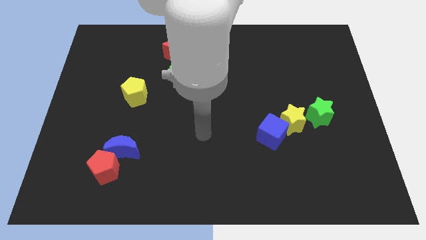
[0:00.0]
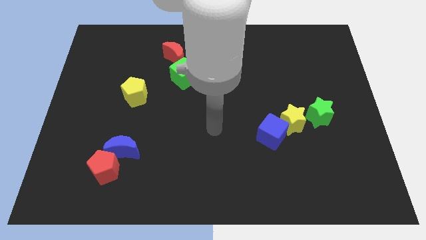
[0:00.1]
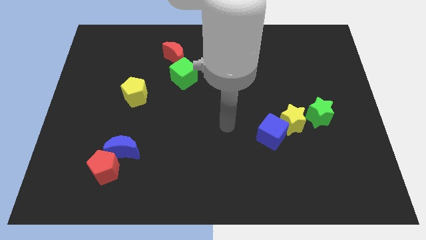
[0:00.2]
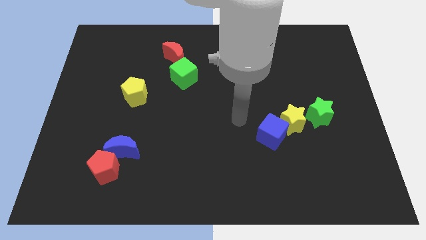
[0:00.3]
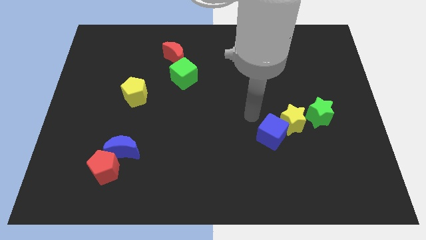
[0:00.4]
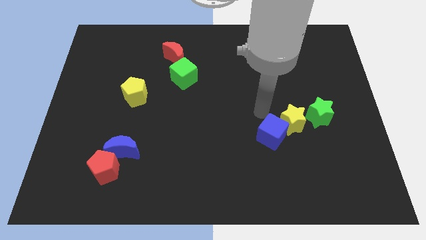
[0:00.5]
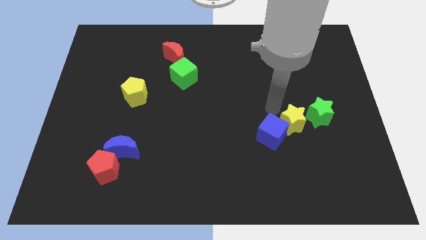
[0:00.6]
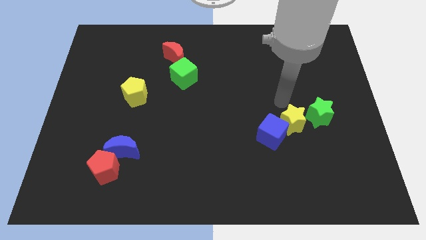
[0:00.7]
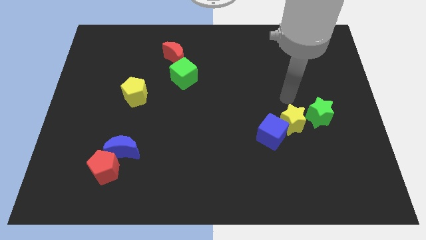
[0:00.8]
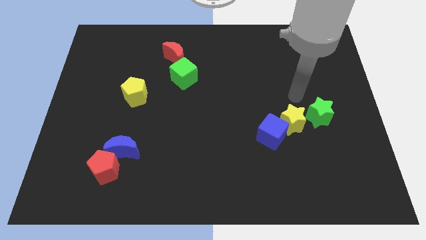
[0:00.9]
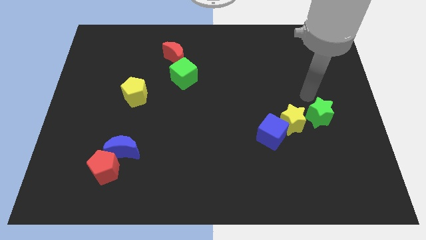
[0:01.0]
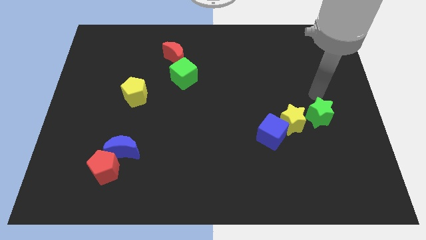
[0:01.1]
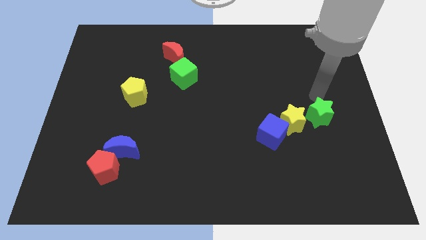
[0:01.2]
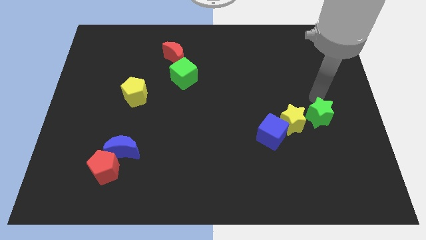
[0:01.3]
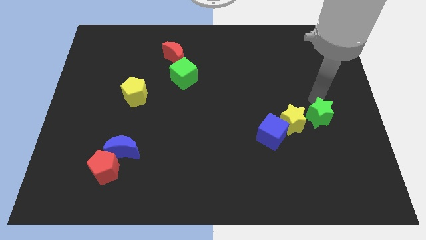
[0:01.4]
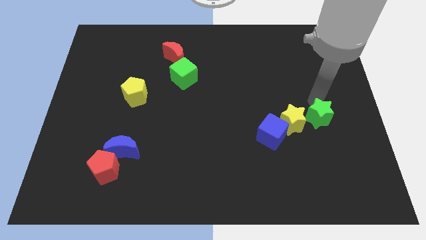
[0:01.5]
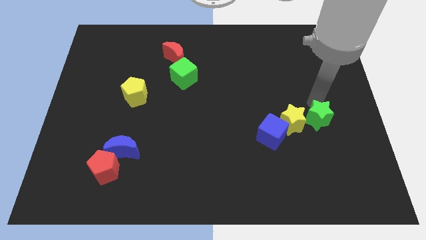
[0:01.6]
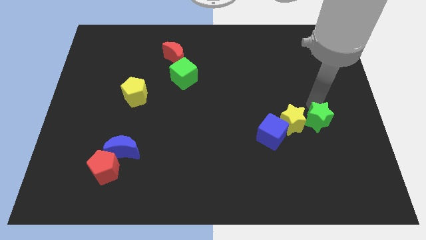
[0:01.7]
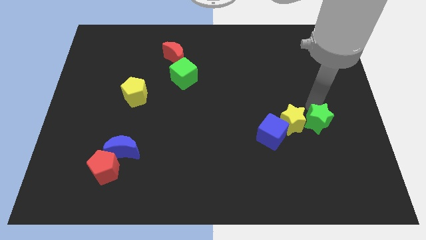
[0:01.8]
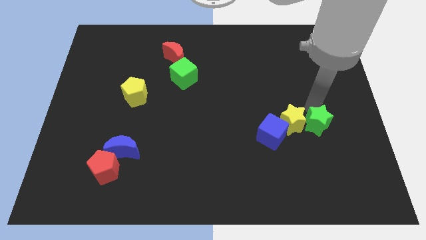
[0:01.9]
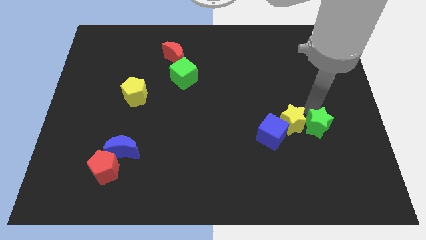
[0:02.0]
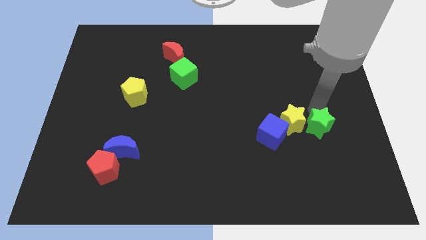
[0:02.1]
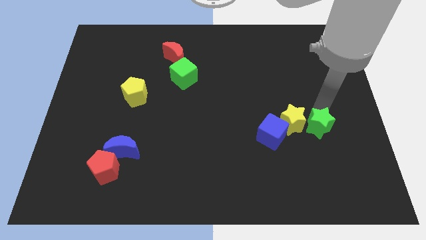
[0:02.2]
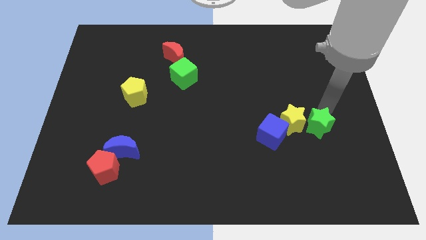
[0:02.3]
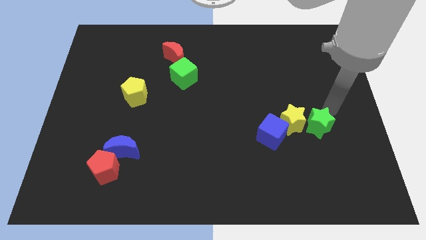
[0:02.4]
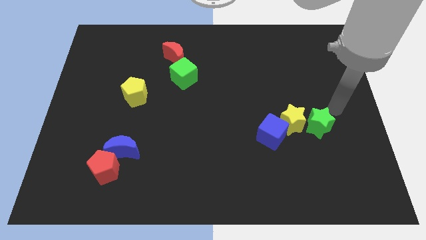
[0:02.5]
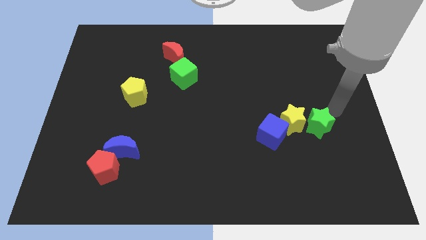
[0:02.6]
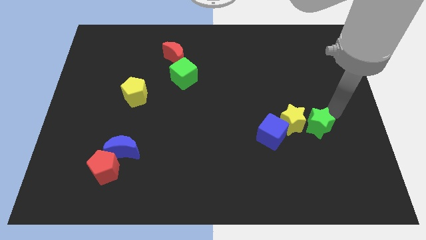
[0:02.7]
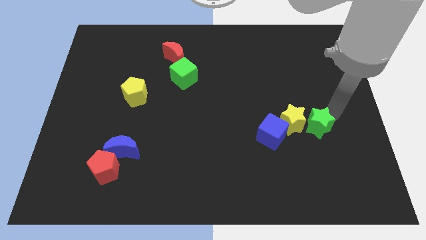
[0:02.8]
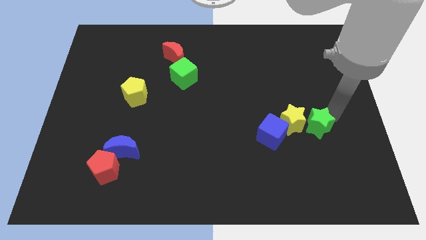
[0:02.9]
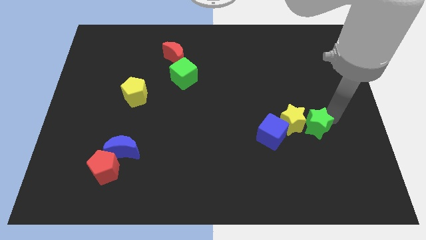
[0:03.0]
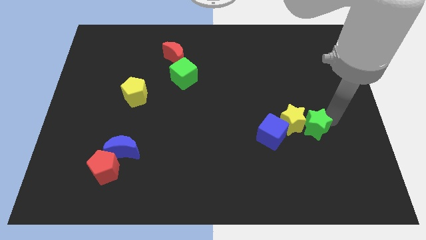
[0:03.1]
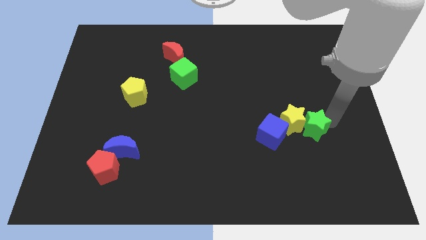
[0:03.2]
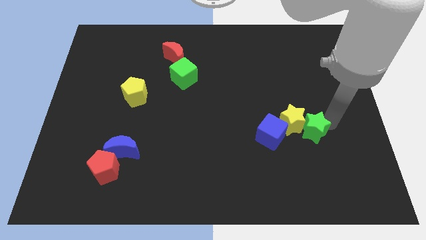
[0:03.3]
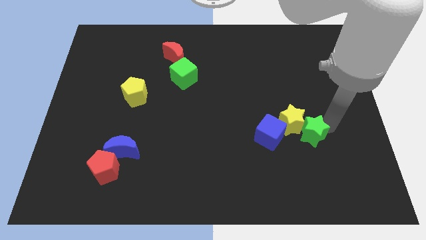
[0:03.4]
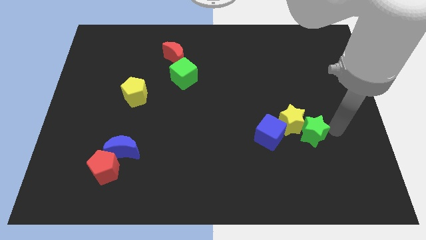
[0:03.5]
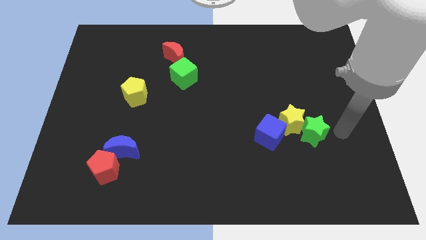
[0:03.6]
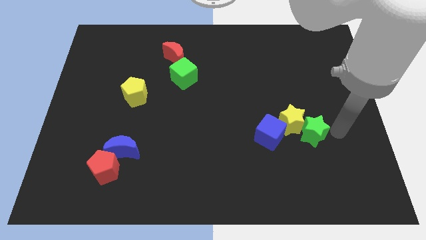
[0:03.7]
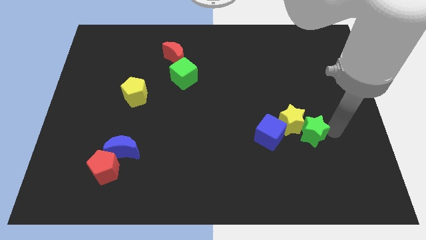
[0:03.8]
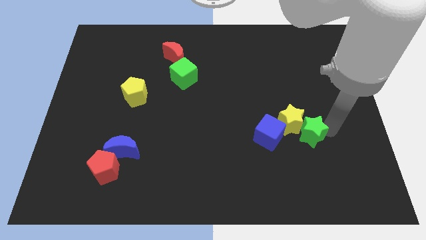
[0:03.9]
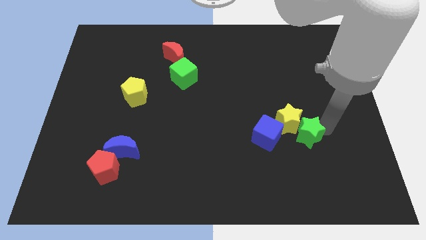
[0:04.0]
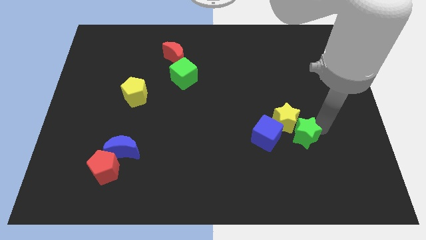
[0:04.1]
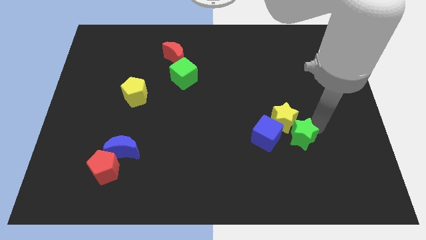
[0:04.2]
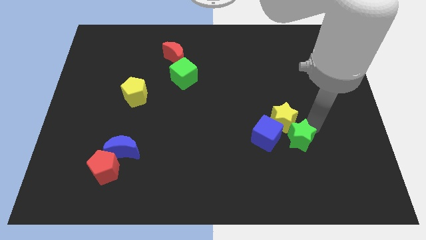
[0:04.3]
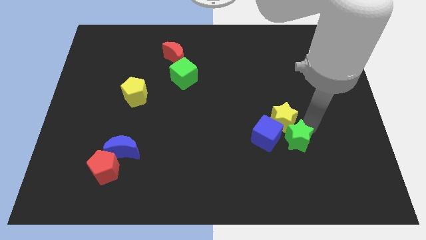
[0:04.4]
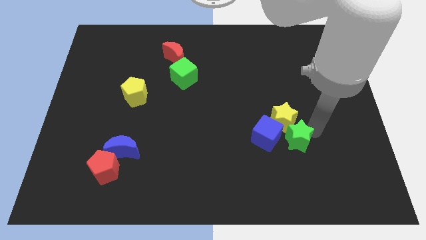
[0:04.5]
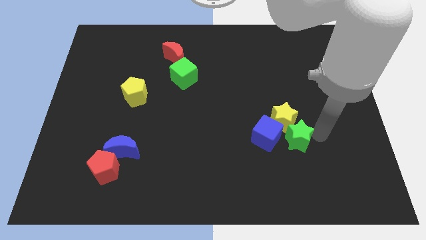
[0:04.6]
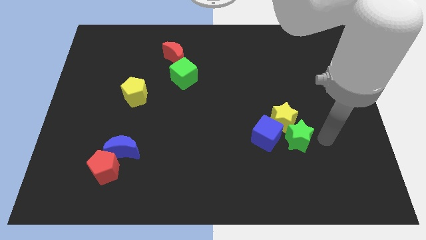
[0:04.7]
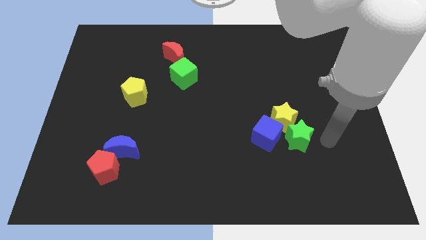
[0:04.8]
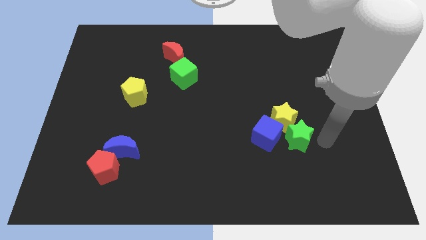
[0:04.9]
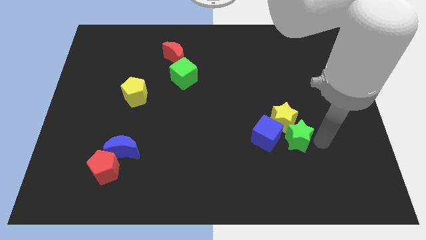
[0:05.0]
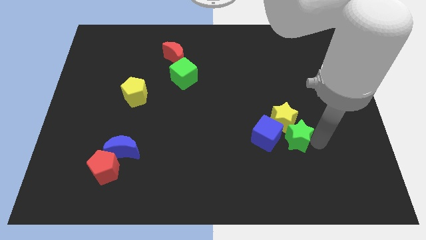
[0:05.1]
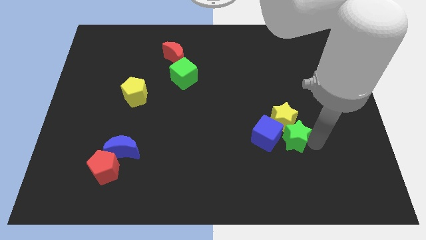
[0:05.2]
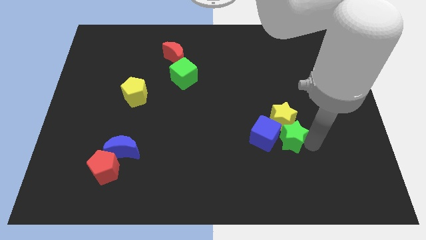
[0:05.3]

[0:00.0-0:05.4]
move the green star next to the blue cube

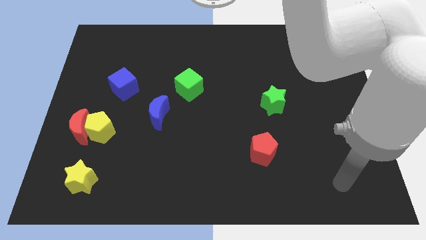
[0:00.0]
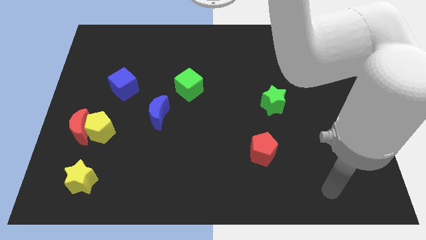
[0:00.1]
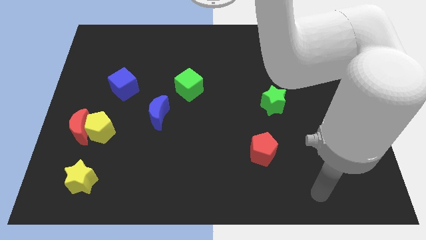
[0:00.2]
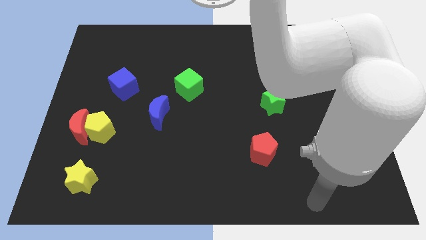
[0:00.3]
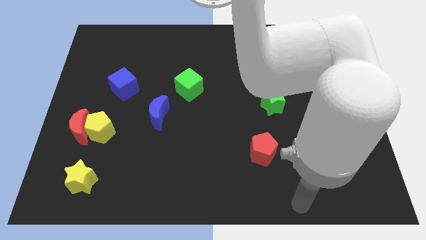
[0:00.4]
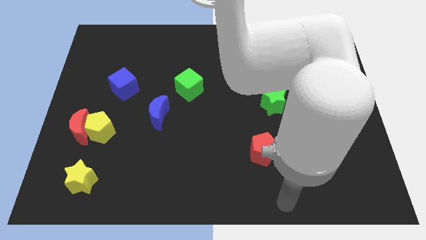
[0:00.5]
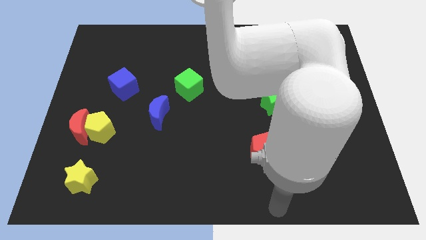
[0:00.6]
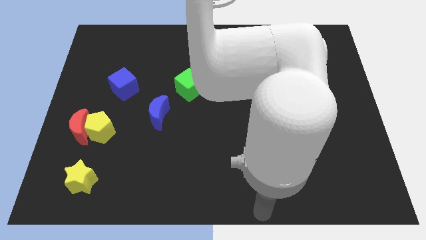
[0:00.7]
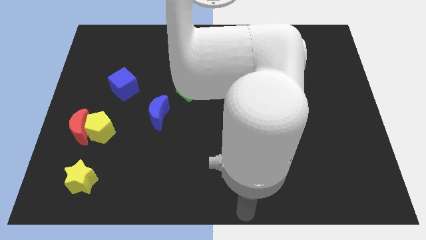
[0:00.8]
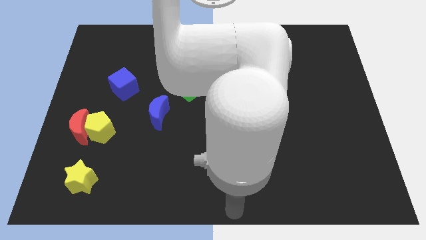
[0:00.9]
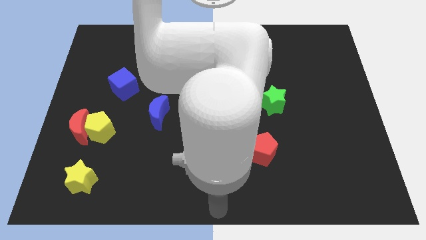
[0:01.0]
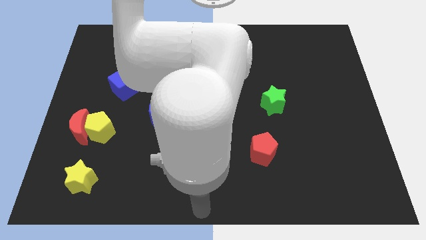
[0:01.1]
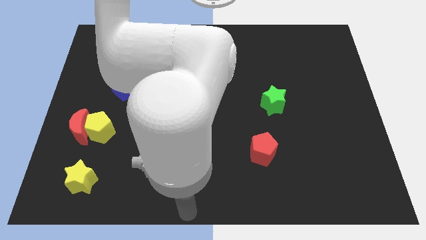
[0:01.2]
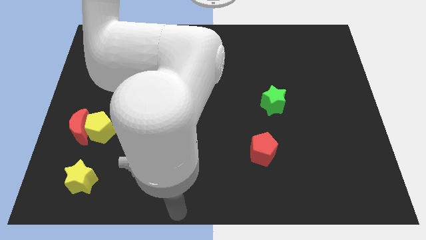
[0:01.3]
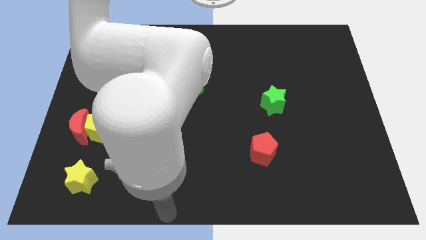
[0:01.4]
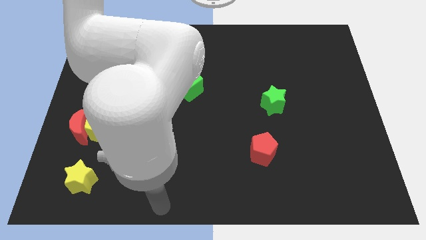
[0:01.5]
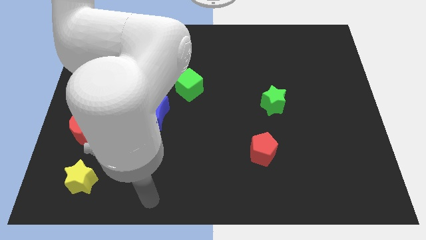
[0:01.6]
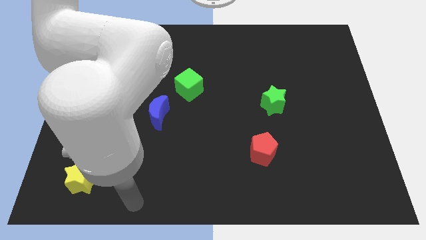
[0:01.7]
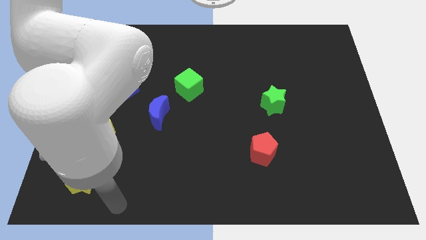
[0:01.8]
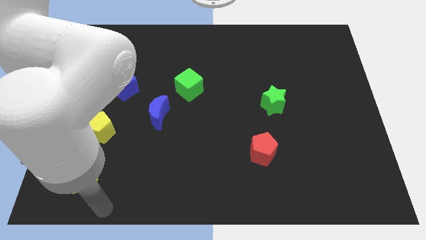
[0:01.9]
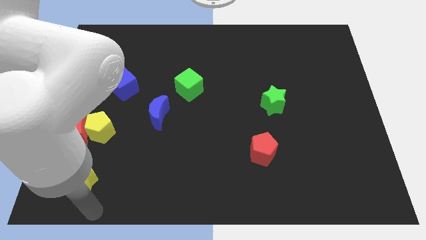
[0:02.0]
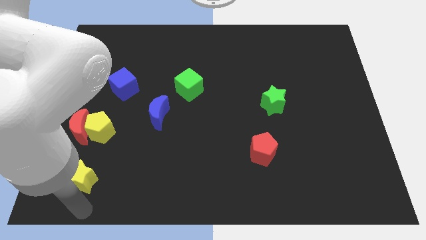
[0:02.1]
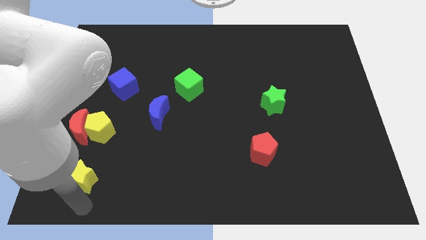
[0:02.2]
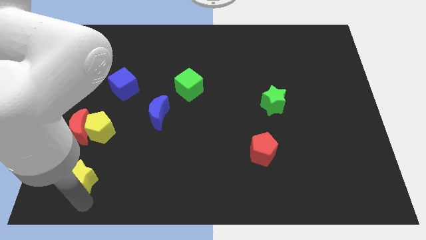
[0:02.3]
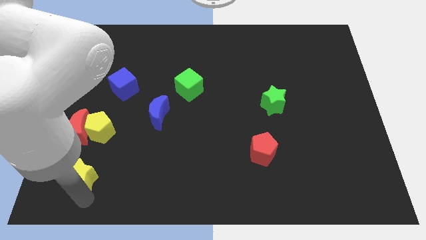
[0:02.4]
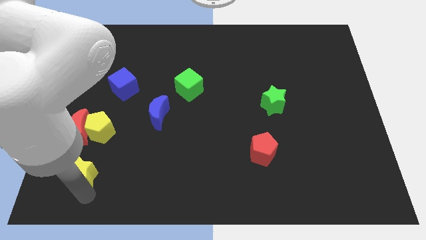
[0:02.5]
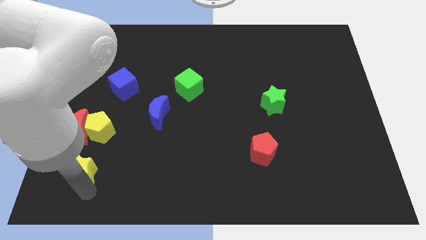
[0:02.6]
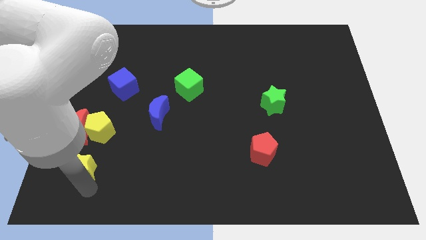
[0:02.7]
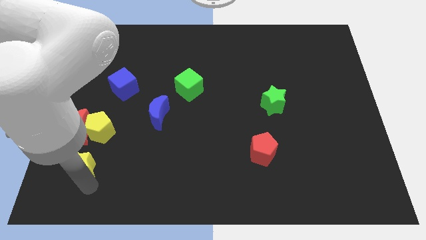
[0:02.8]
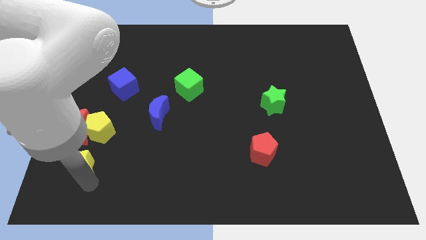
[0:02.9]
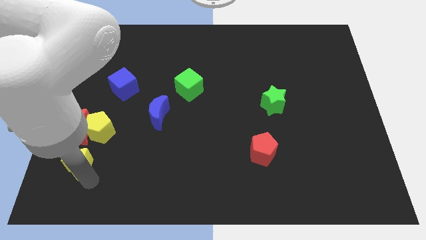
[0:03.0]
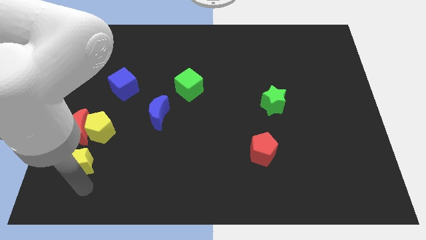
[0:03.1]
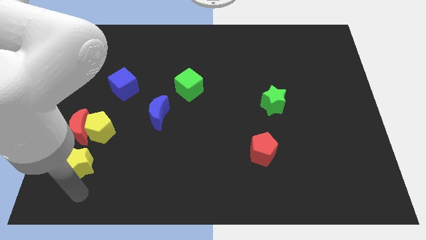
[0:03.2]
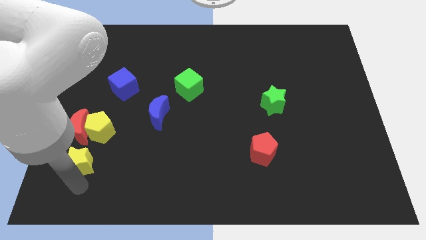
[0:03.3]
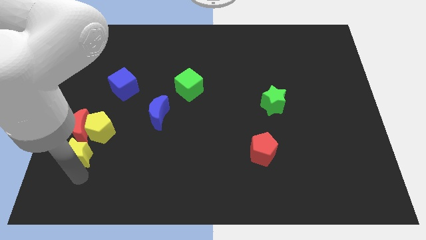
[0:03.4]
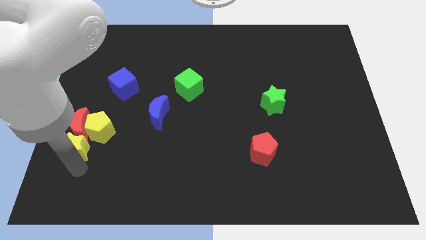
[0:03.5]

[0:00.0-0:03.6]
push the yellow star towards the red moon
